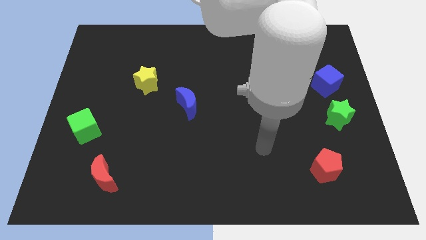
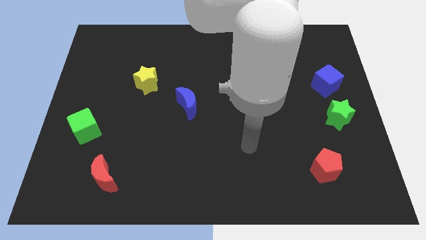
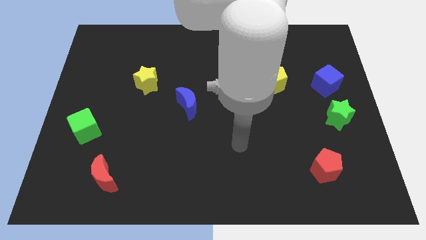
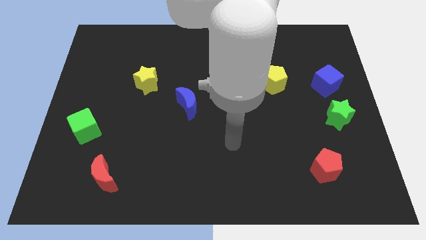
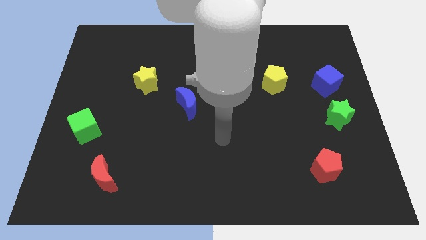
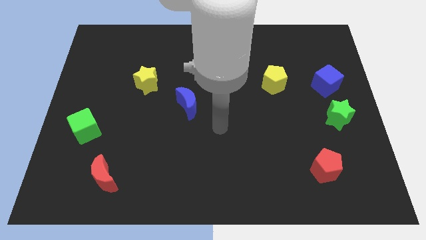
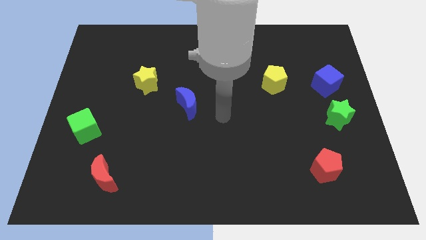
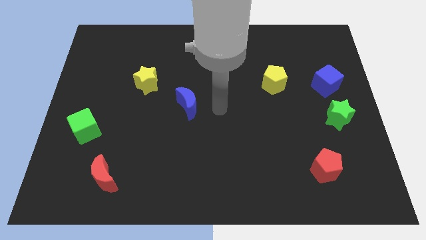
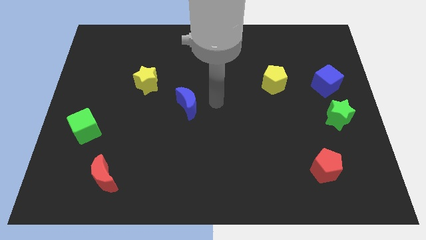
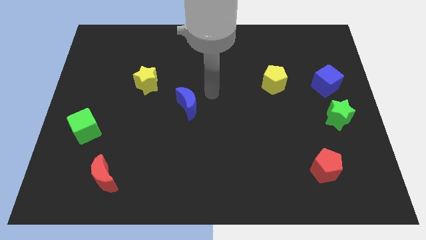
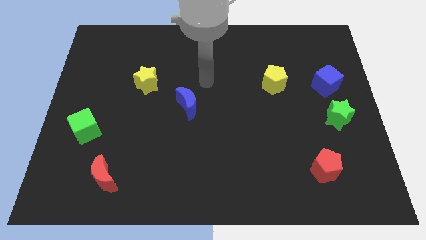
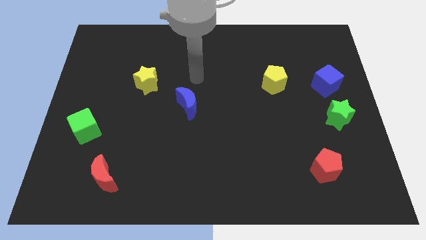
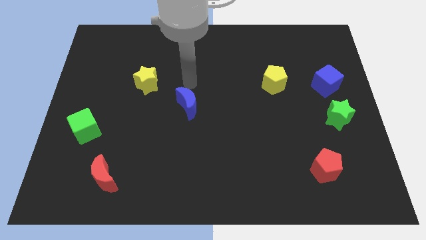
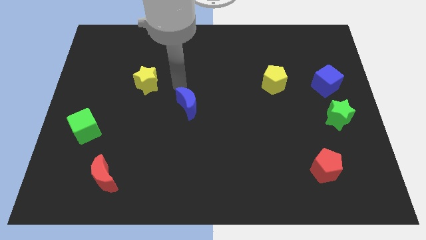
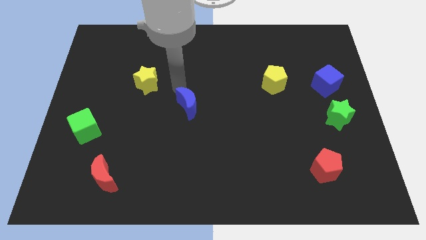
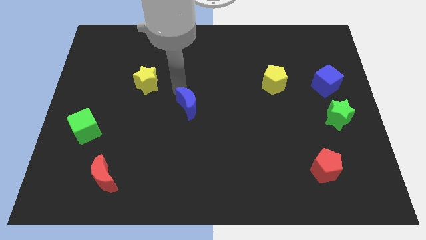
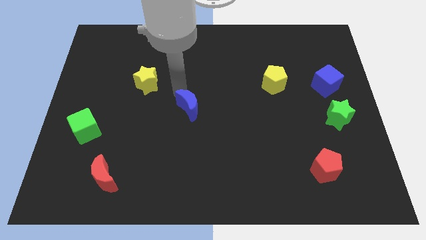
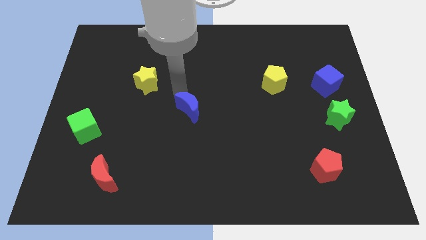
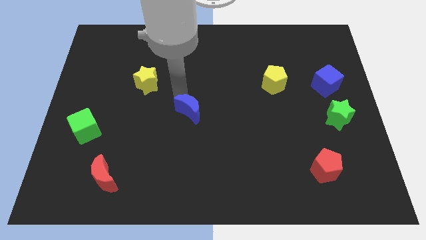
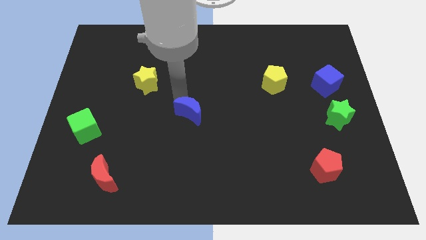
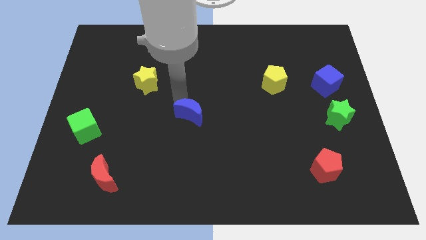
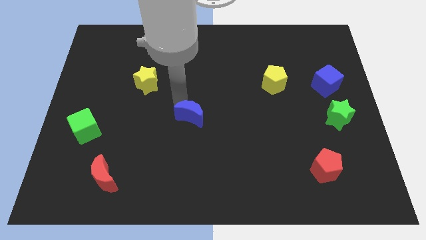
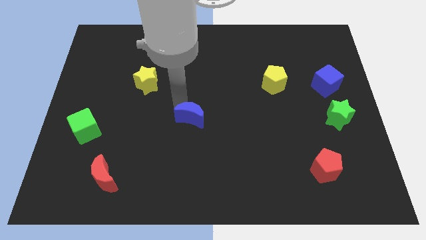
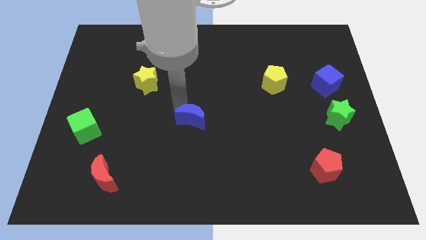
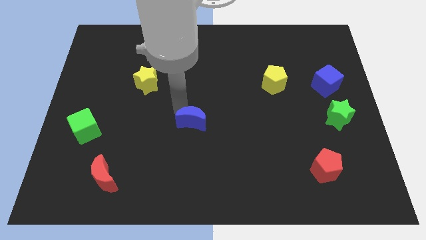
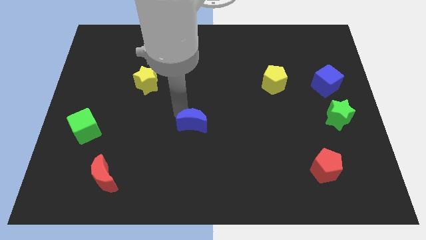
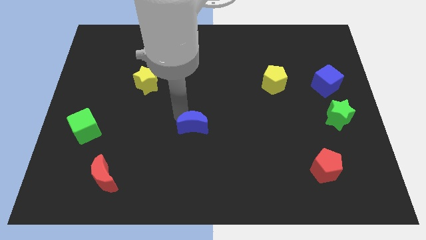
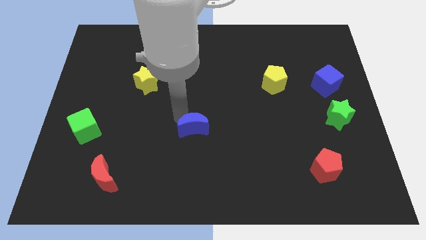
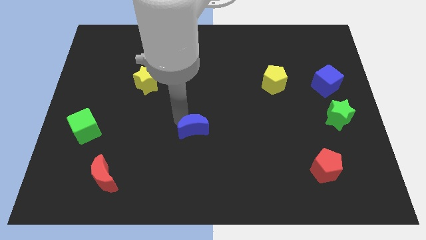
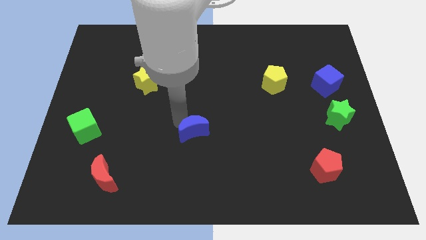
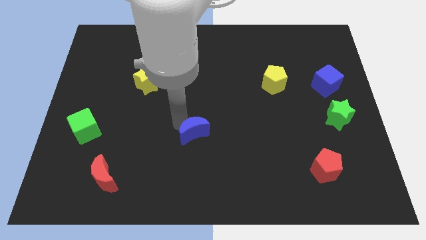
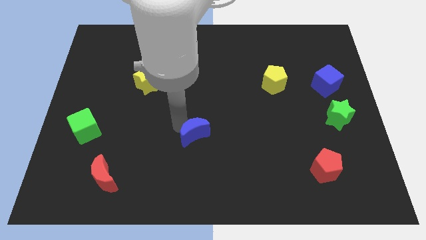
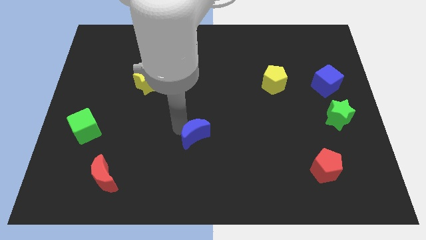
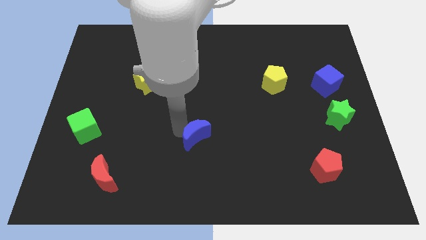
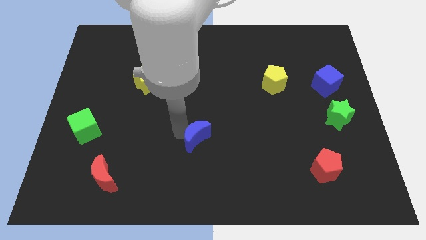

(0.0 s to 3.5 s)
push the blue moon downwards and then right a bit

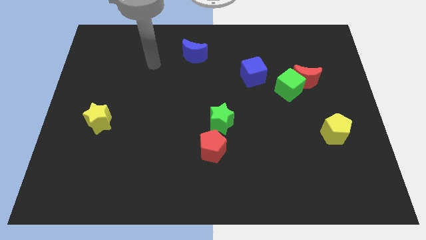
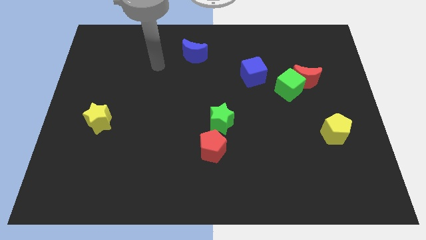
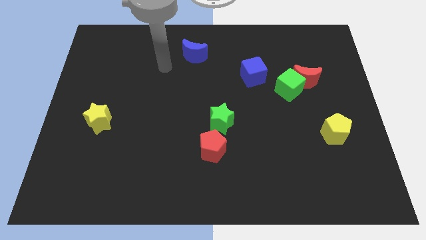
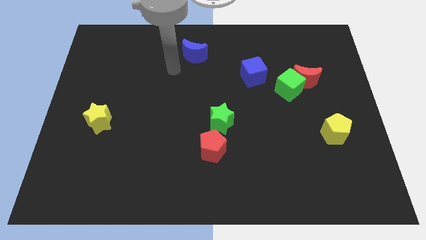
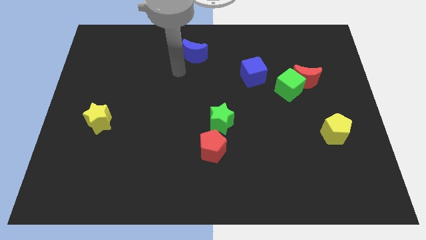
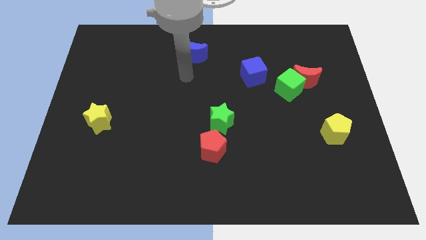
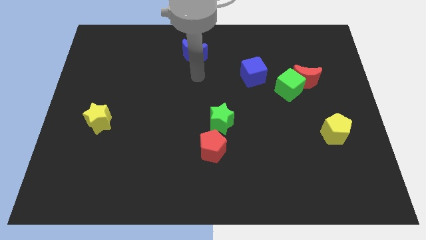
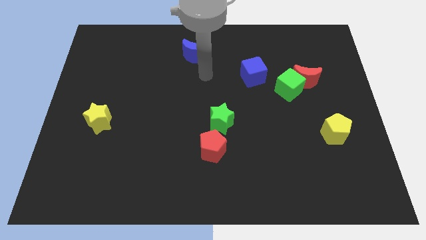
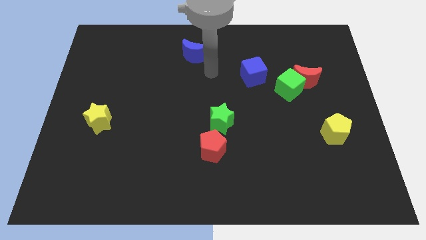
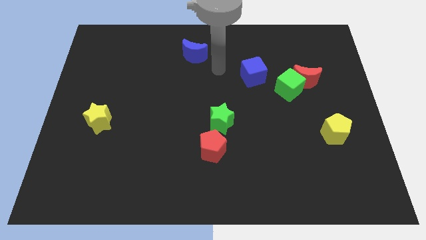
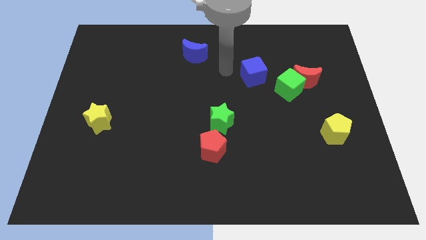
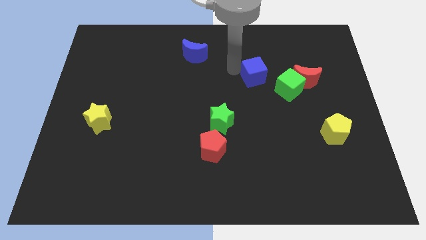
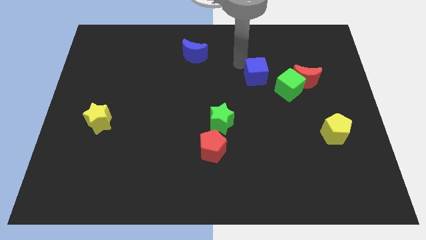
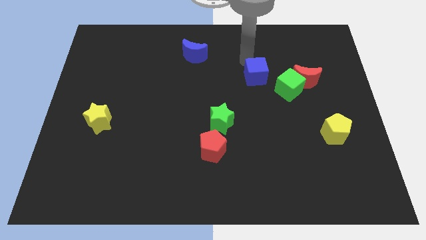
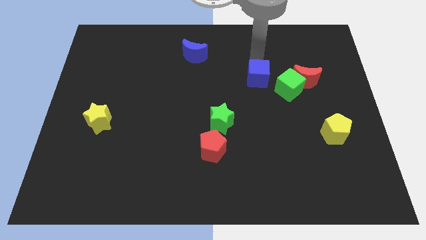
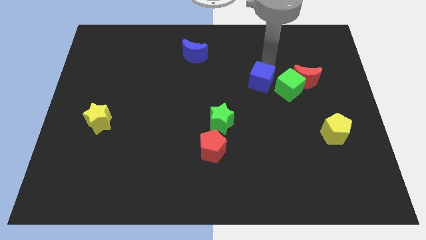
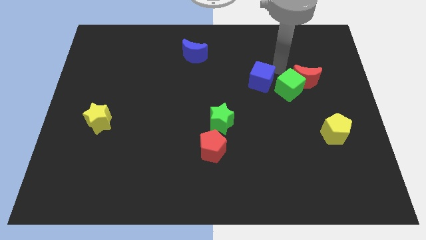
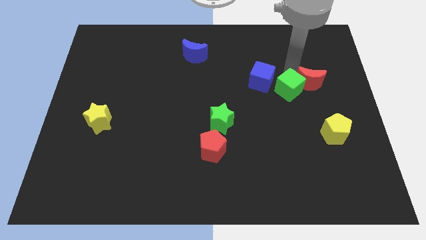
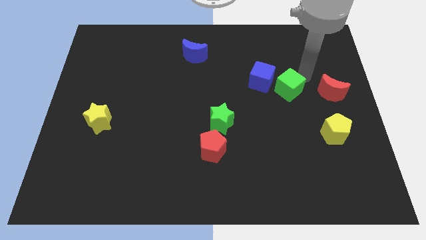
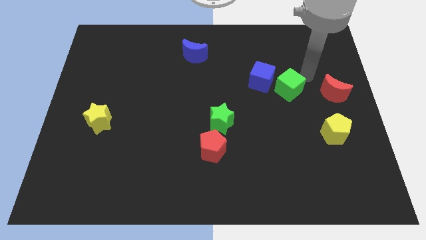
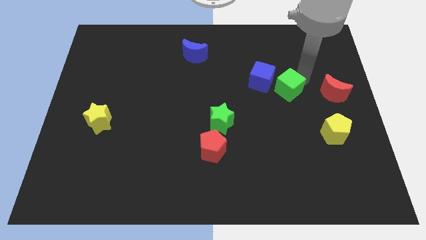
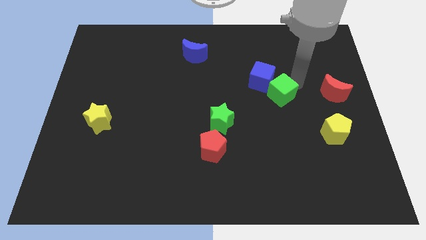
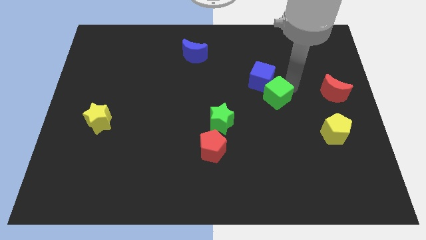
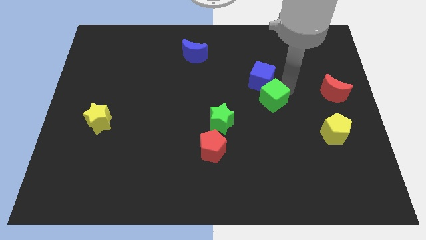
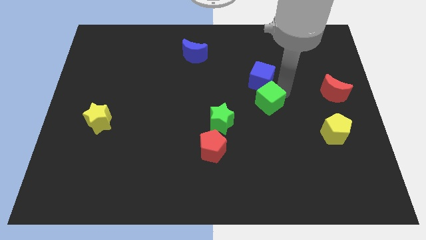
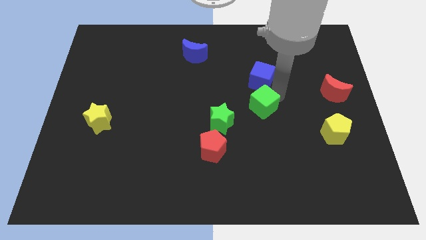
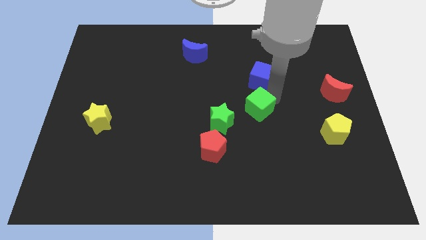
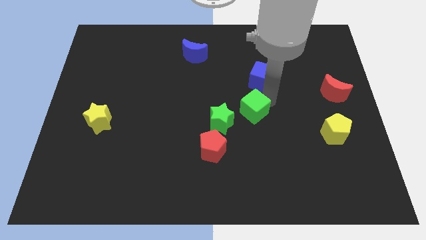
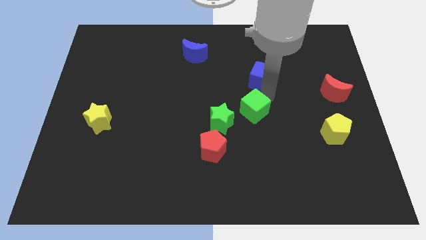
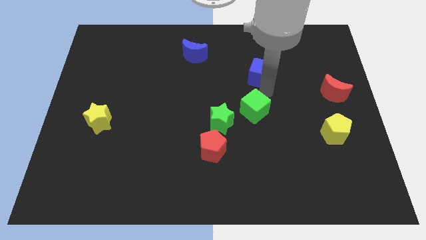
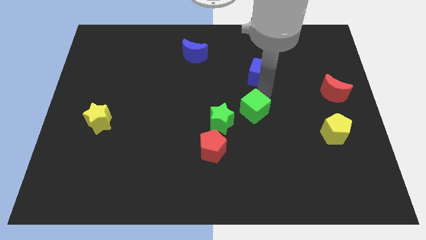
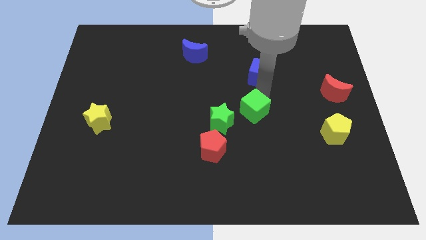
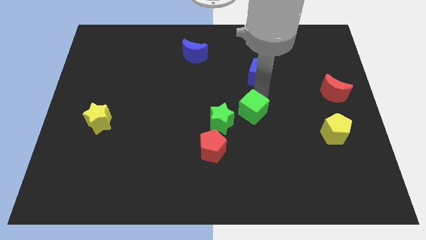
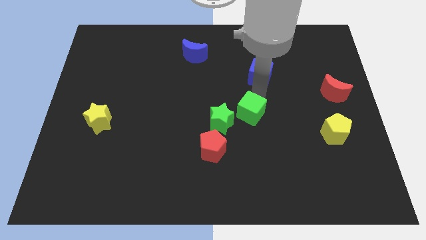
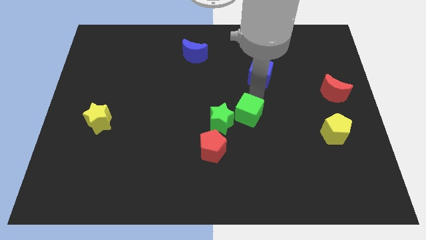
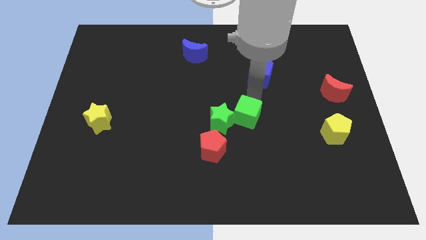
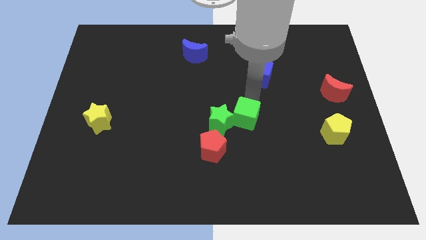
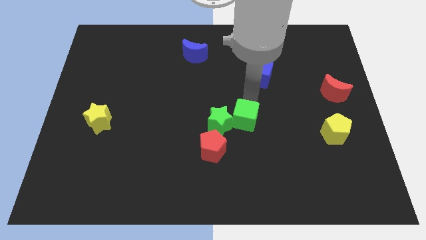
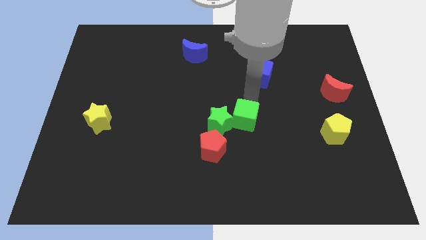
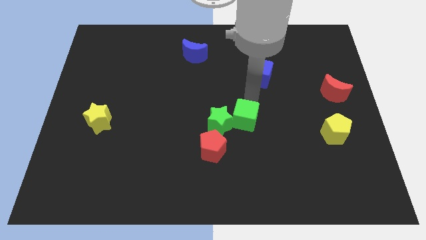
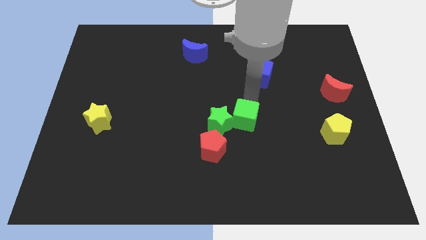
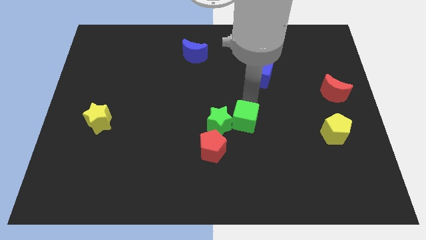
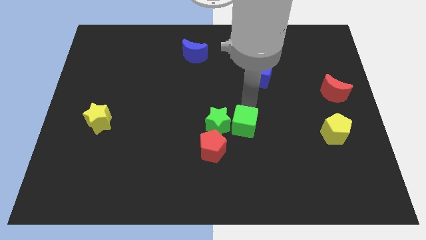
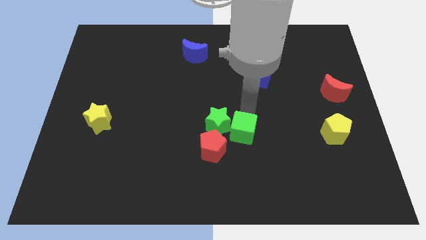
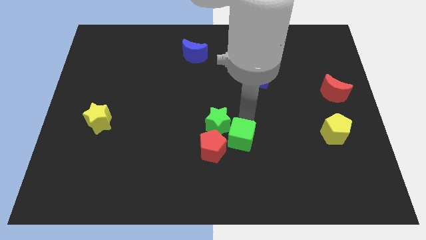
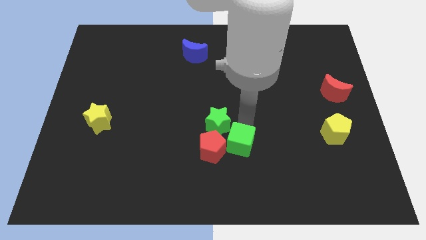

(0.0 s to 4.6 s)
slide the green cube diagonally downwards and left

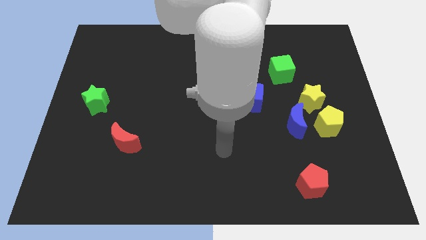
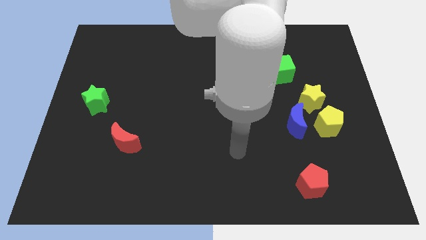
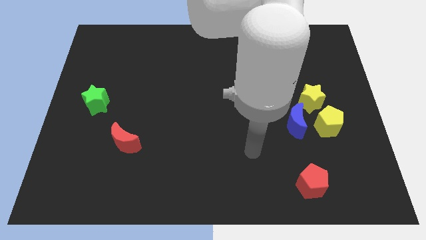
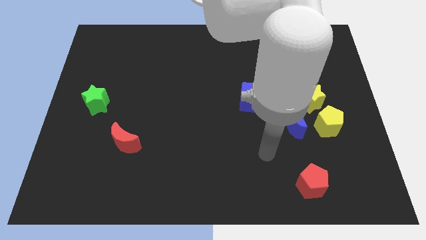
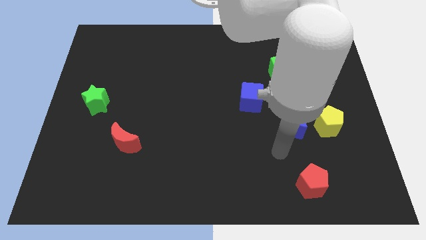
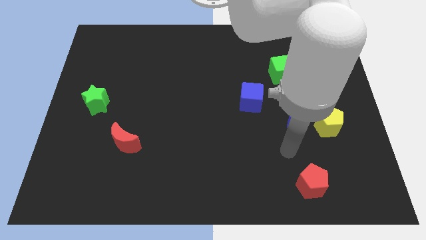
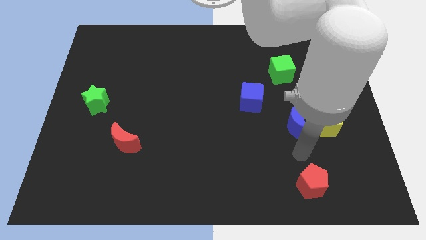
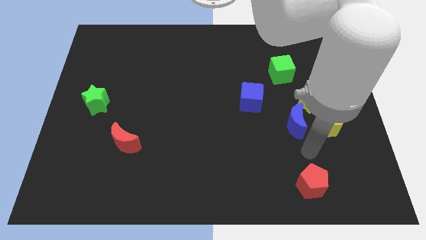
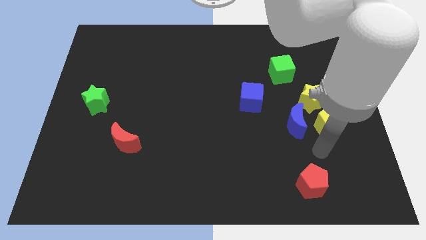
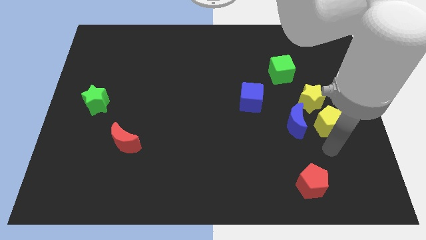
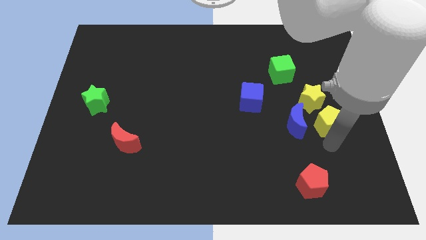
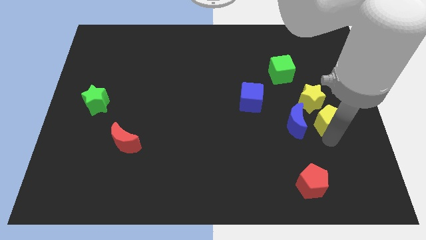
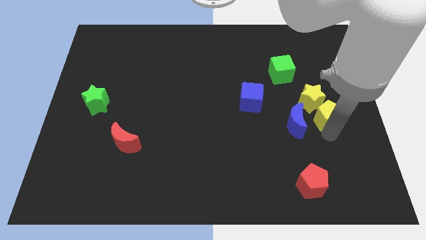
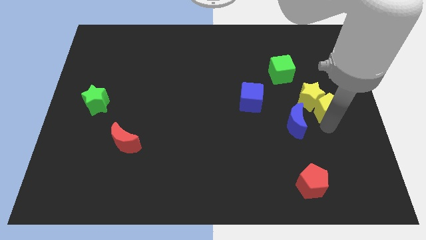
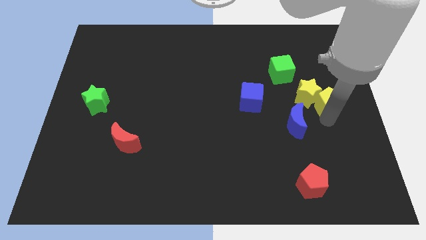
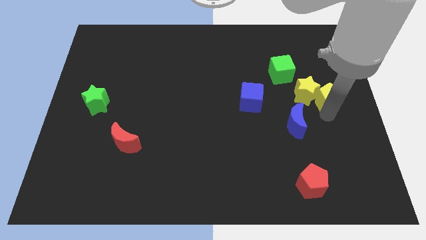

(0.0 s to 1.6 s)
slightly push the yellow pentagon upwards
